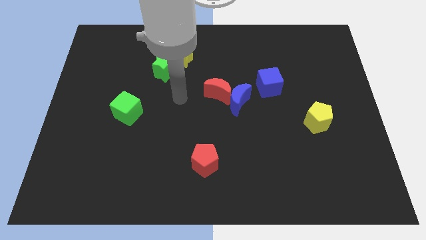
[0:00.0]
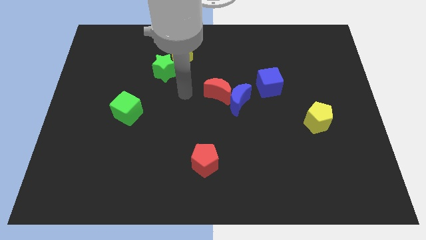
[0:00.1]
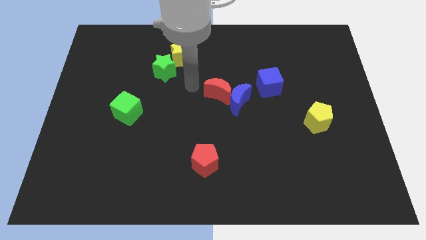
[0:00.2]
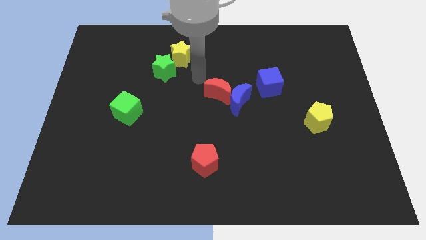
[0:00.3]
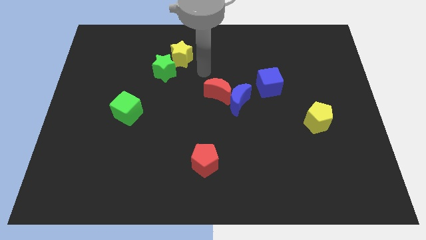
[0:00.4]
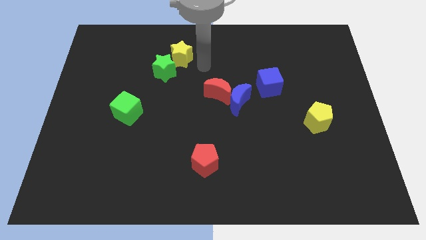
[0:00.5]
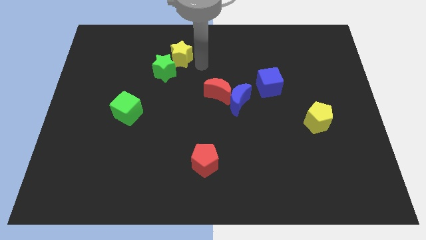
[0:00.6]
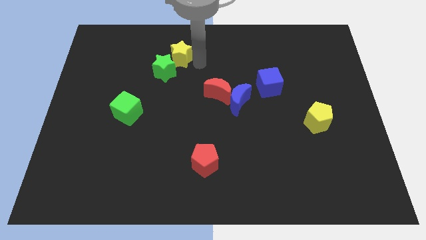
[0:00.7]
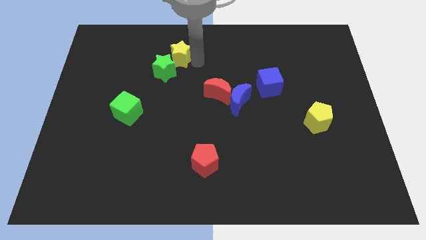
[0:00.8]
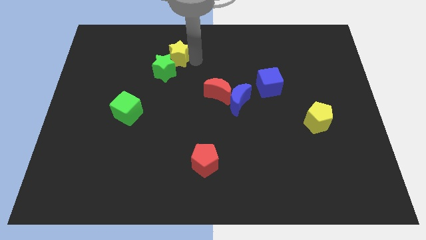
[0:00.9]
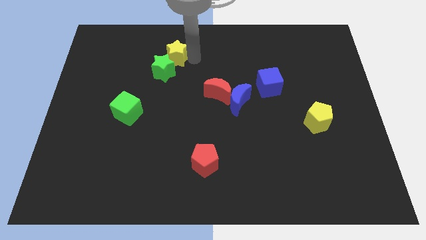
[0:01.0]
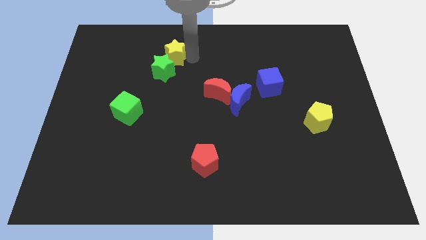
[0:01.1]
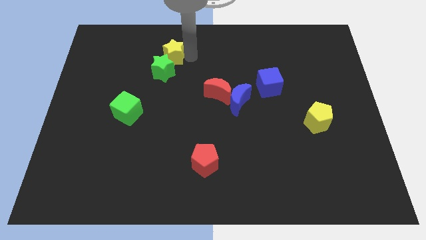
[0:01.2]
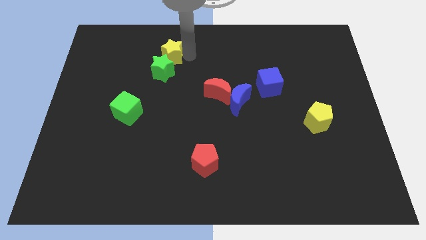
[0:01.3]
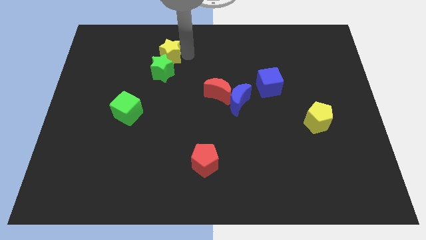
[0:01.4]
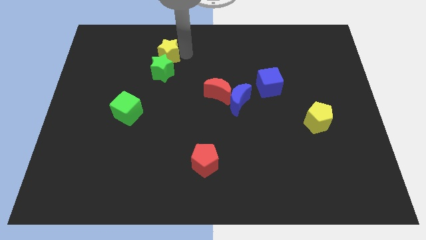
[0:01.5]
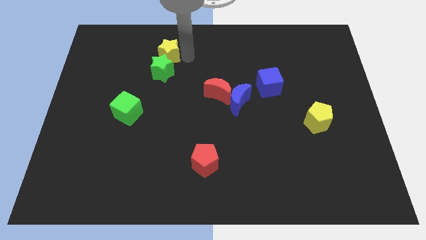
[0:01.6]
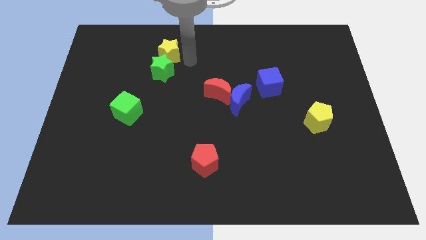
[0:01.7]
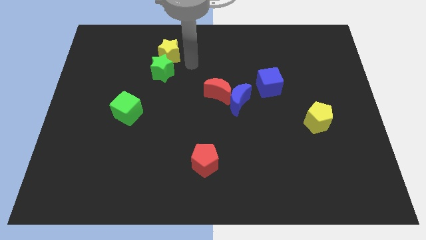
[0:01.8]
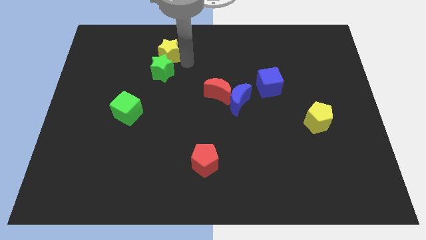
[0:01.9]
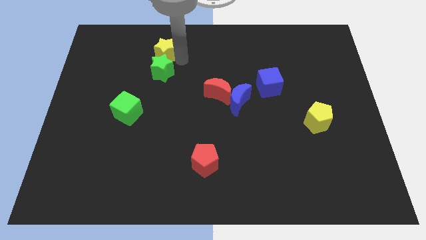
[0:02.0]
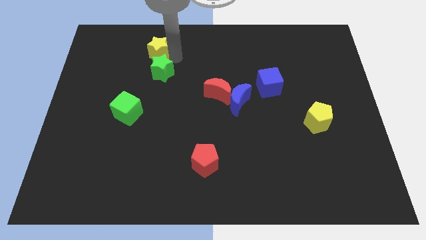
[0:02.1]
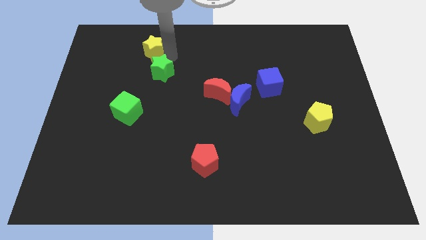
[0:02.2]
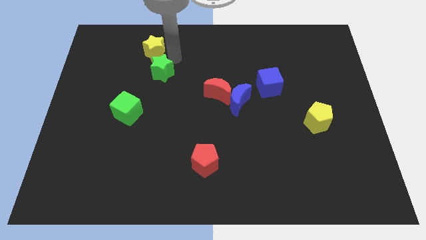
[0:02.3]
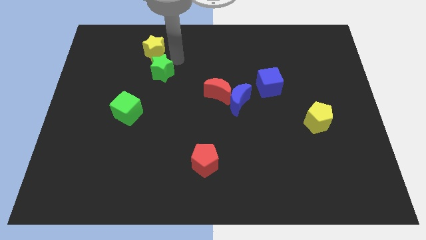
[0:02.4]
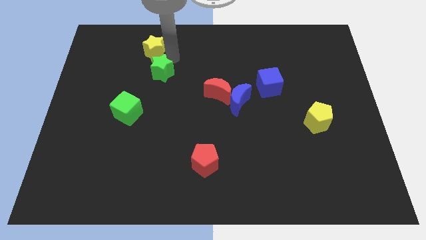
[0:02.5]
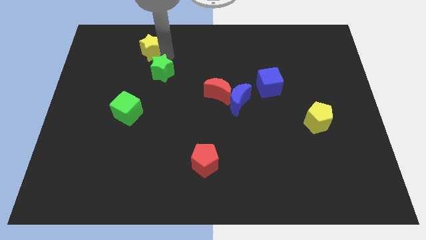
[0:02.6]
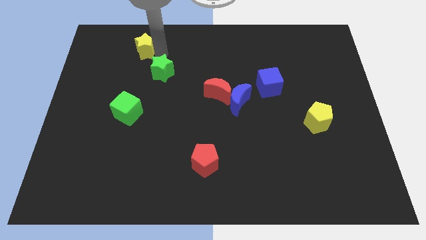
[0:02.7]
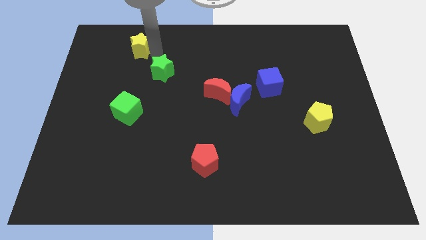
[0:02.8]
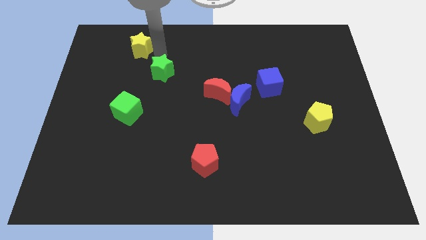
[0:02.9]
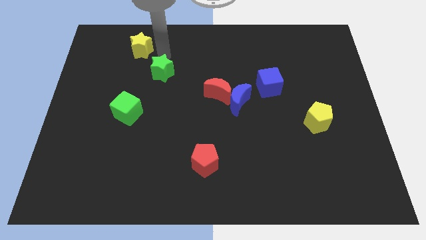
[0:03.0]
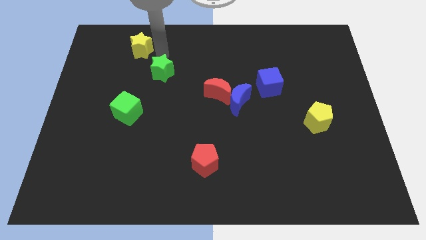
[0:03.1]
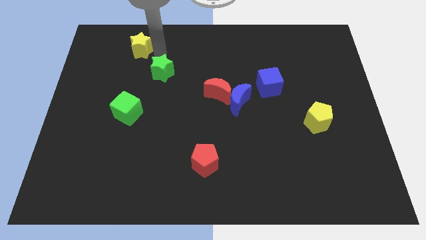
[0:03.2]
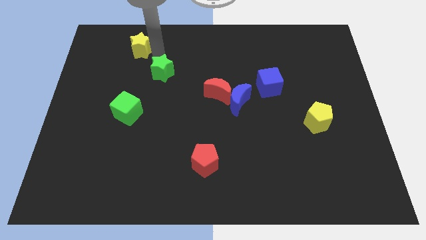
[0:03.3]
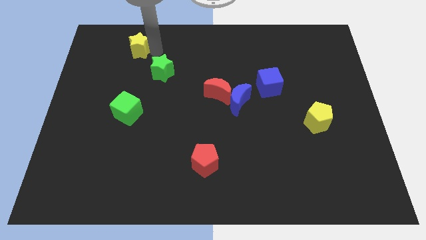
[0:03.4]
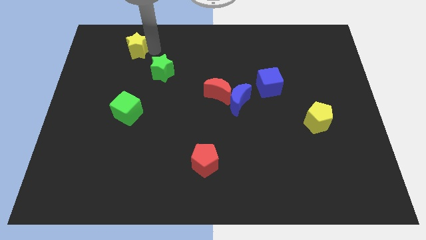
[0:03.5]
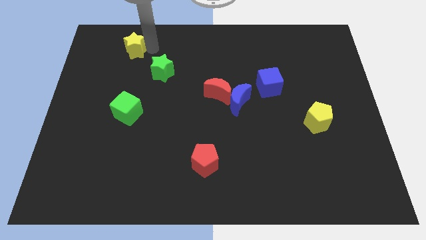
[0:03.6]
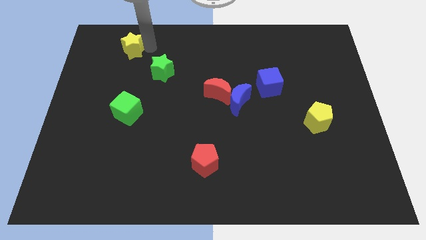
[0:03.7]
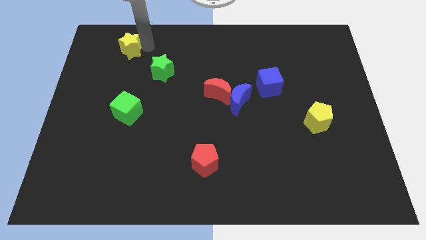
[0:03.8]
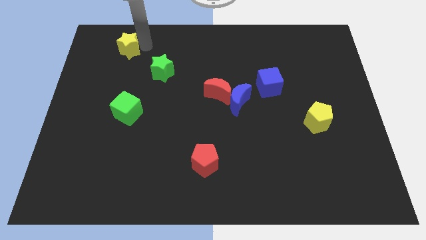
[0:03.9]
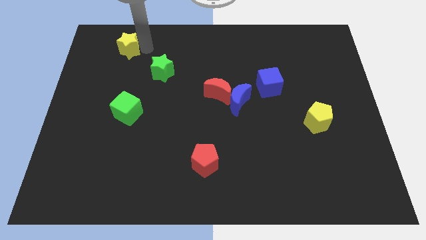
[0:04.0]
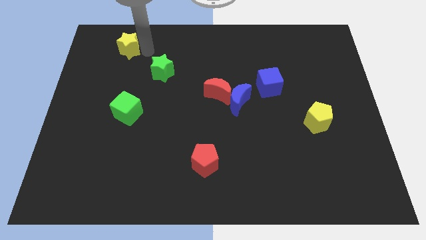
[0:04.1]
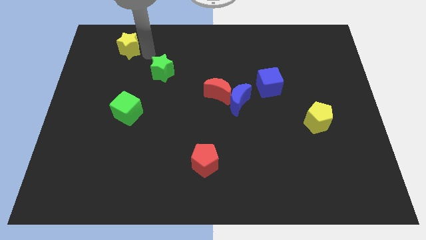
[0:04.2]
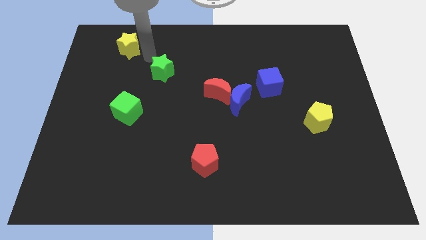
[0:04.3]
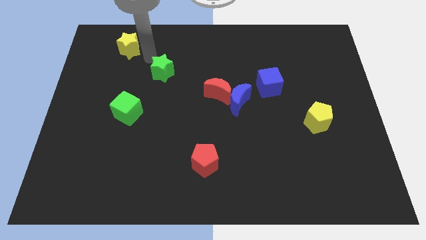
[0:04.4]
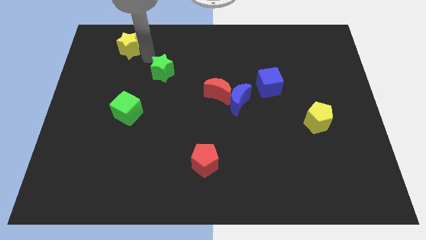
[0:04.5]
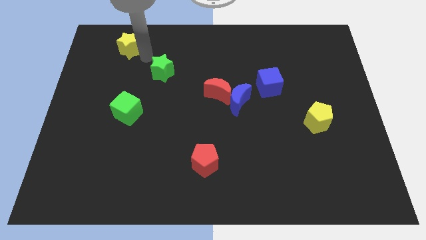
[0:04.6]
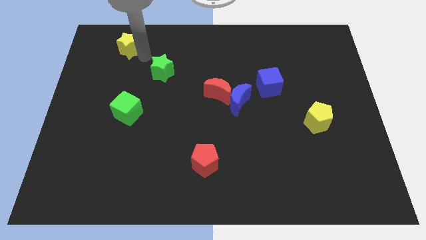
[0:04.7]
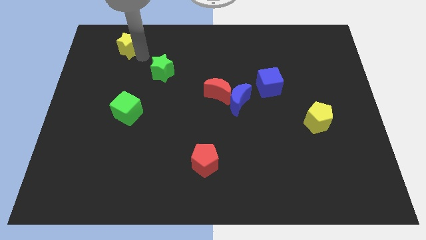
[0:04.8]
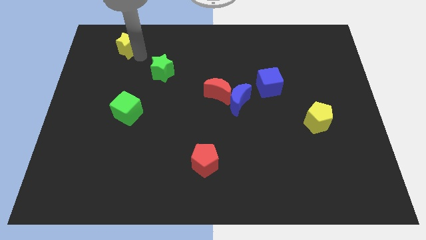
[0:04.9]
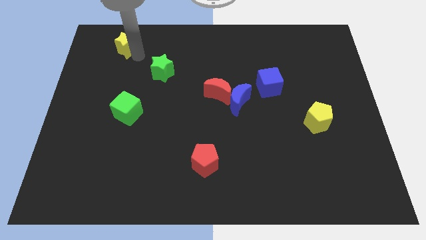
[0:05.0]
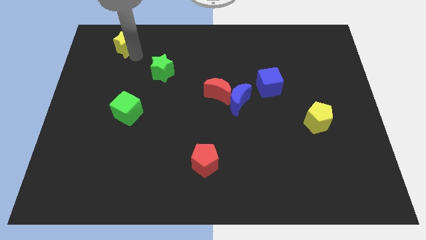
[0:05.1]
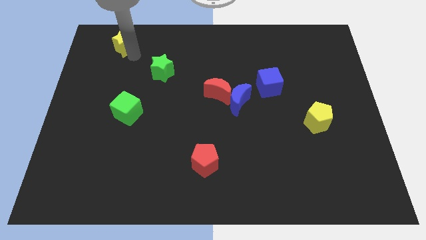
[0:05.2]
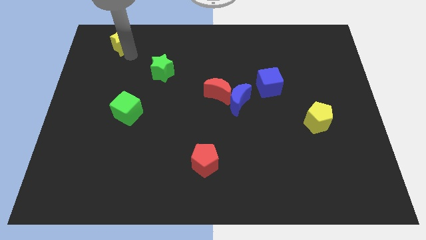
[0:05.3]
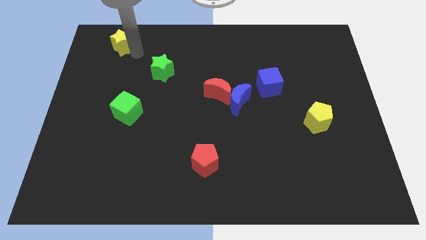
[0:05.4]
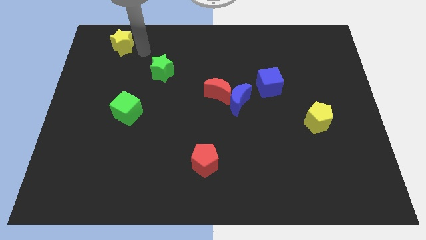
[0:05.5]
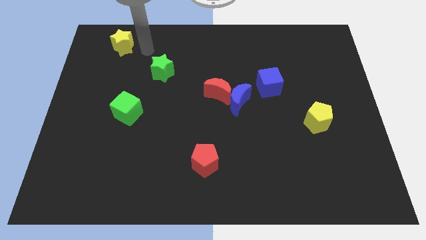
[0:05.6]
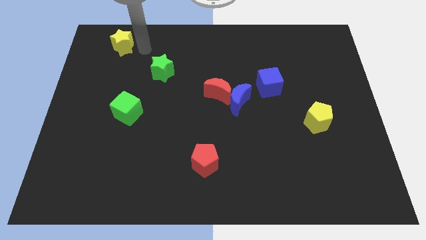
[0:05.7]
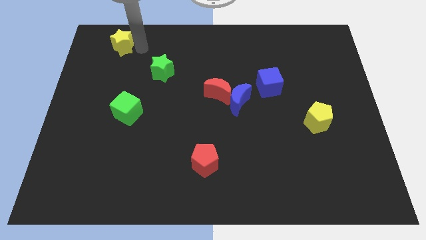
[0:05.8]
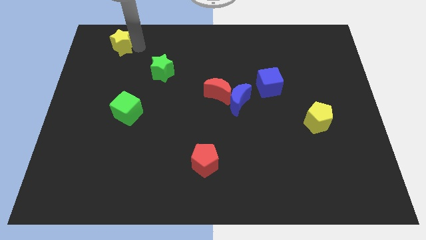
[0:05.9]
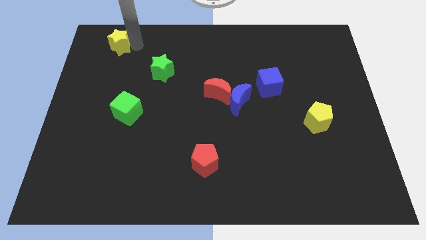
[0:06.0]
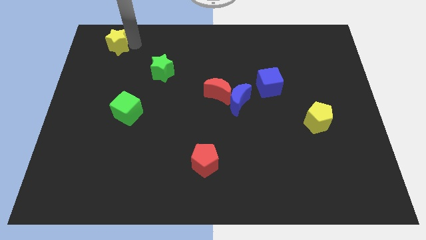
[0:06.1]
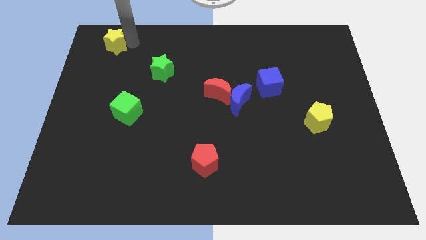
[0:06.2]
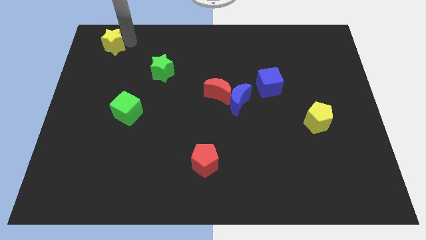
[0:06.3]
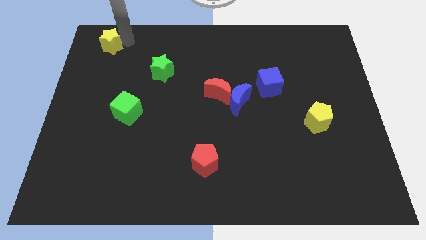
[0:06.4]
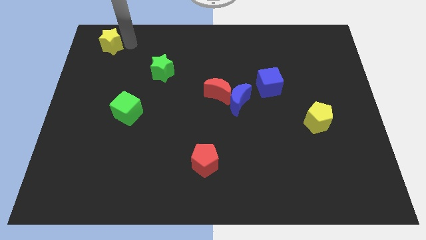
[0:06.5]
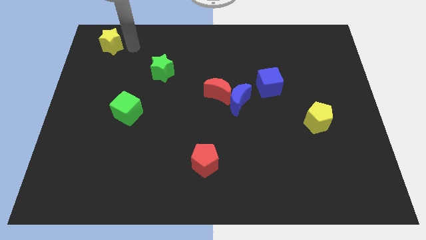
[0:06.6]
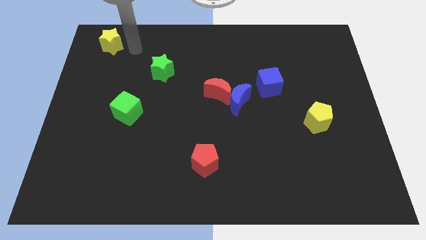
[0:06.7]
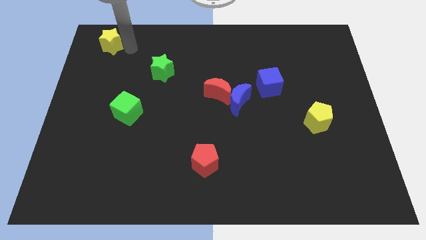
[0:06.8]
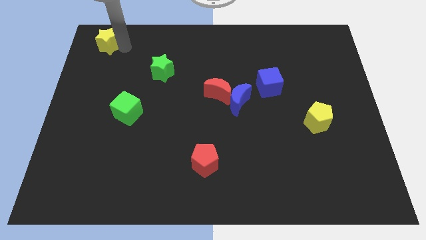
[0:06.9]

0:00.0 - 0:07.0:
push the yellow star to the top left of the board
